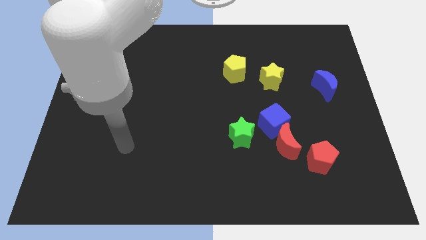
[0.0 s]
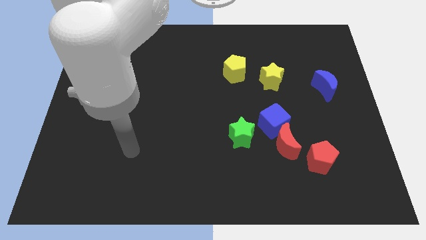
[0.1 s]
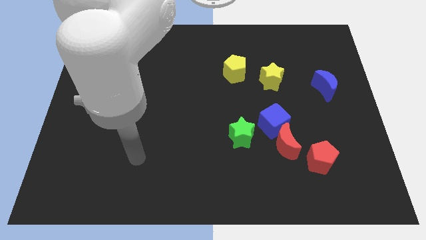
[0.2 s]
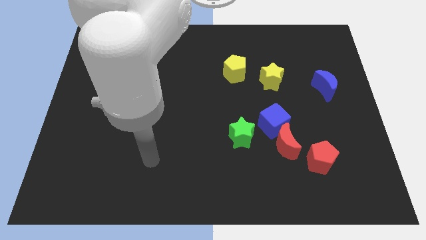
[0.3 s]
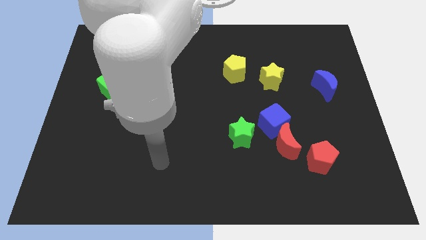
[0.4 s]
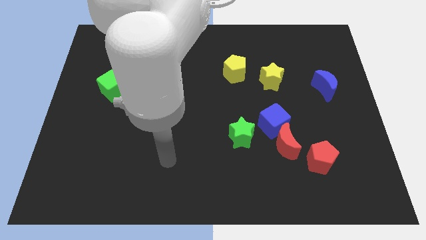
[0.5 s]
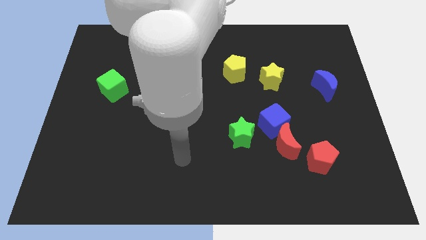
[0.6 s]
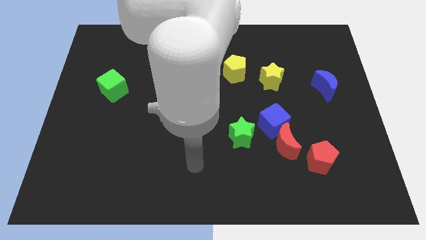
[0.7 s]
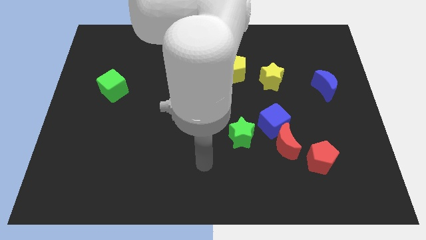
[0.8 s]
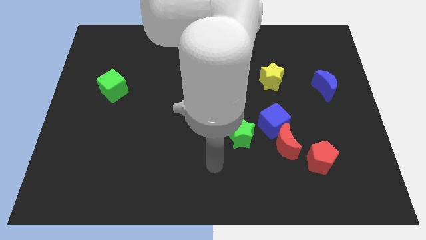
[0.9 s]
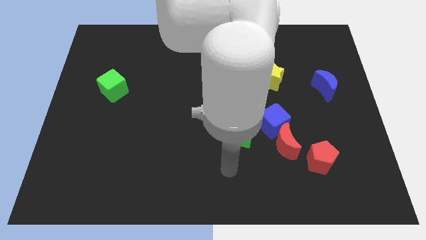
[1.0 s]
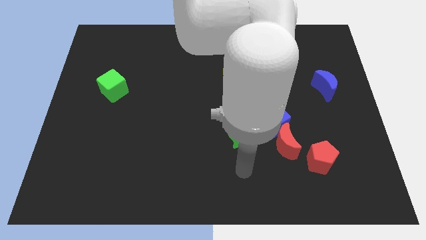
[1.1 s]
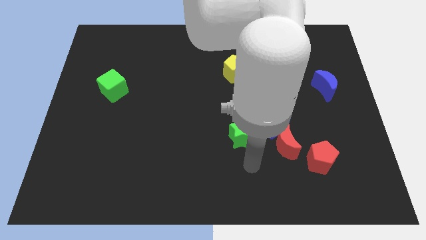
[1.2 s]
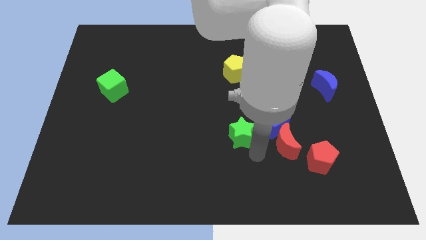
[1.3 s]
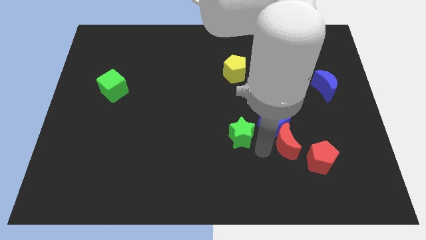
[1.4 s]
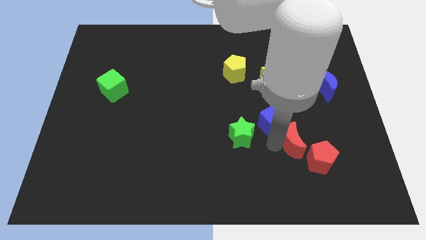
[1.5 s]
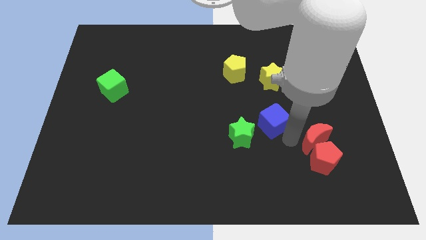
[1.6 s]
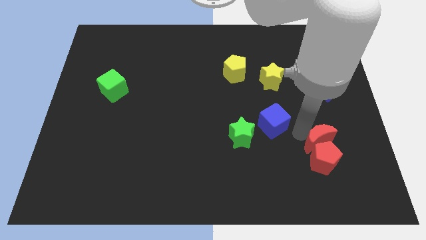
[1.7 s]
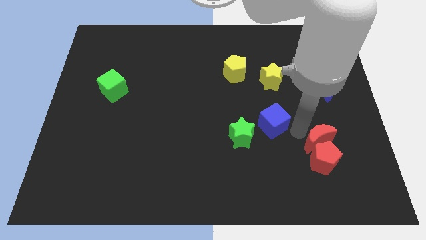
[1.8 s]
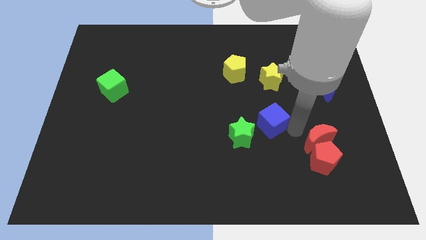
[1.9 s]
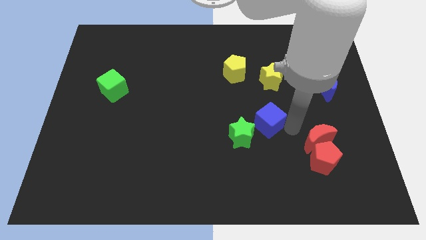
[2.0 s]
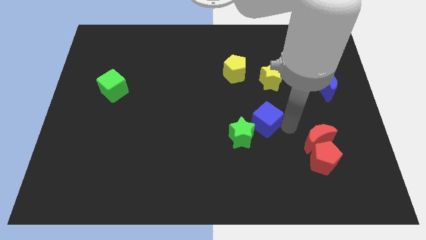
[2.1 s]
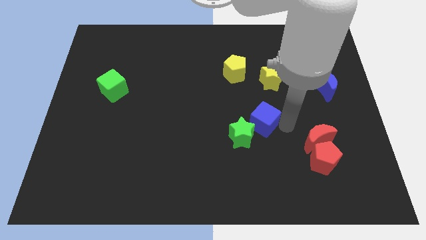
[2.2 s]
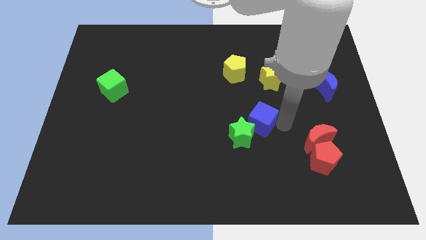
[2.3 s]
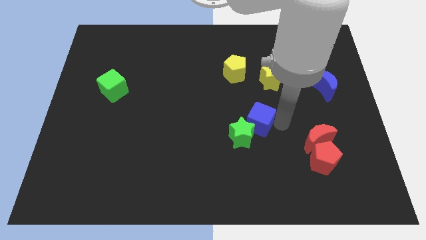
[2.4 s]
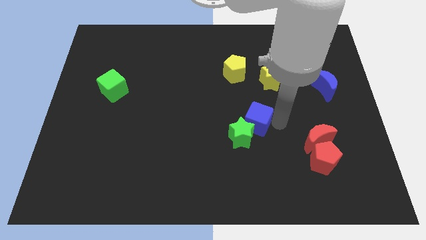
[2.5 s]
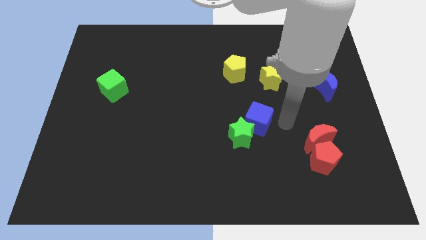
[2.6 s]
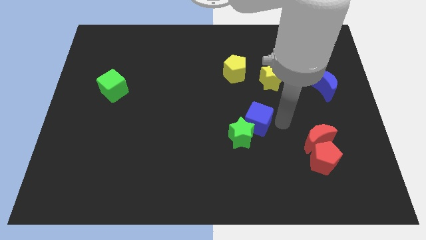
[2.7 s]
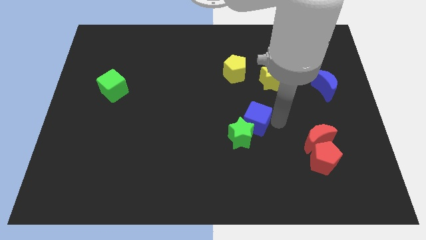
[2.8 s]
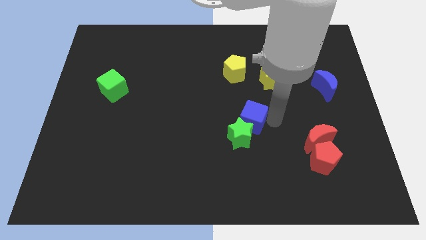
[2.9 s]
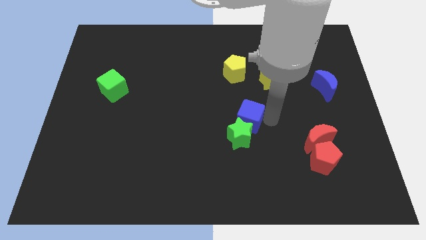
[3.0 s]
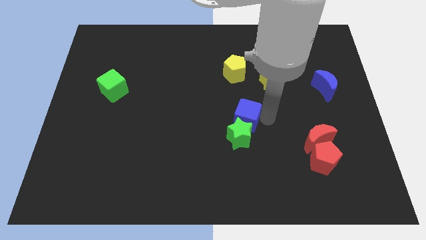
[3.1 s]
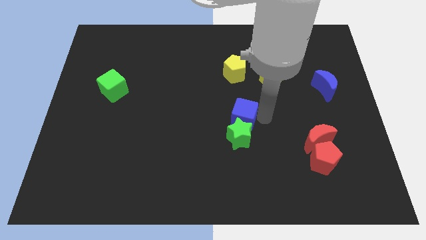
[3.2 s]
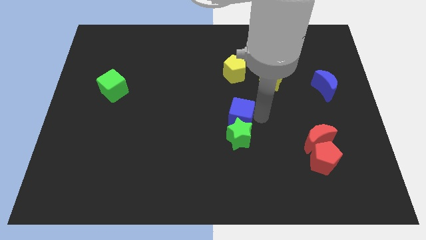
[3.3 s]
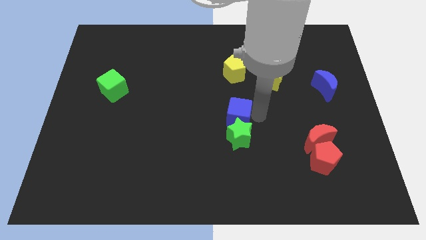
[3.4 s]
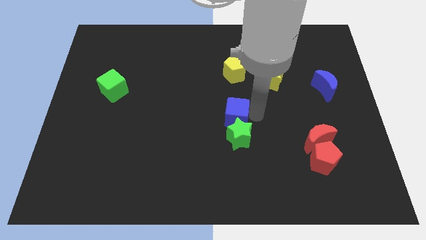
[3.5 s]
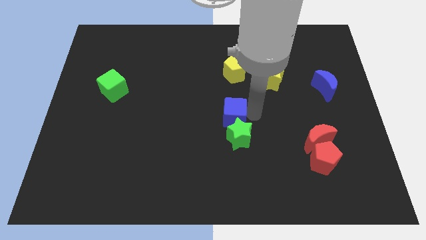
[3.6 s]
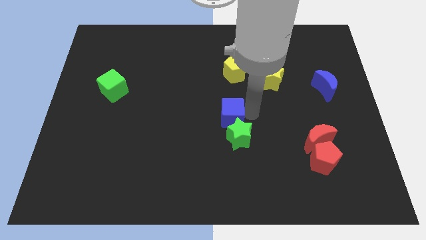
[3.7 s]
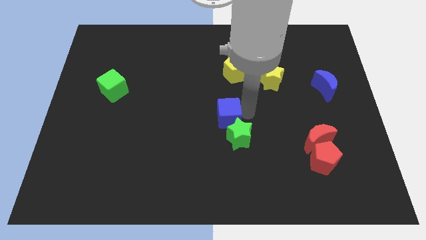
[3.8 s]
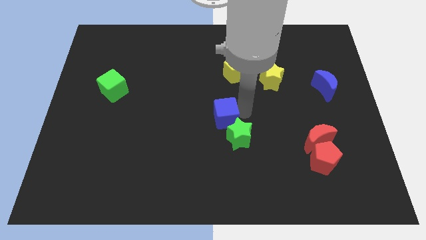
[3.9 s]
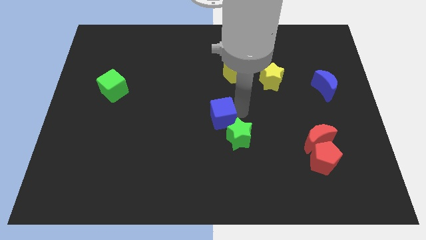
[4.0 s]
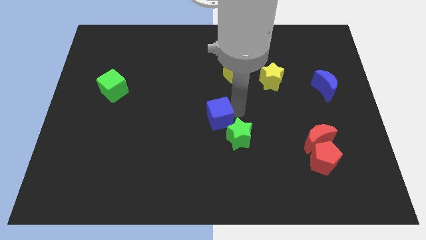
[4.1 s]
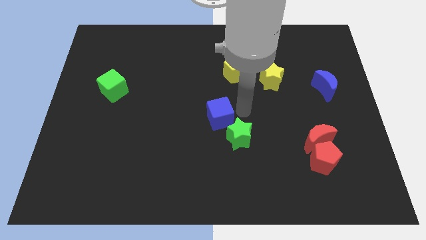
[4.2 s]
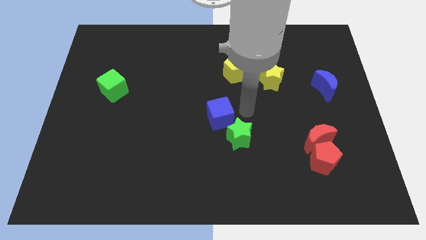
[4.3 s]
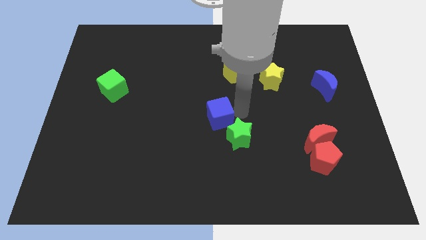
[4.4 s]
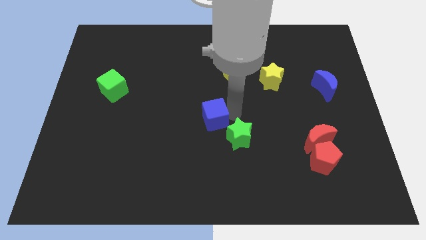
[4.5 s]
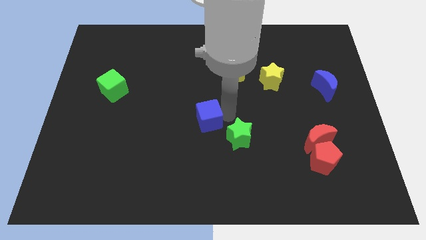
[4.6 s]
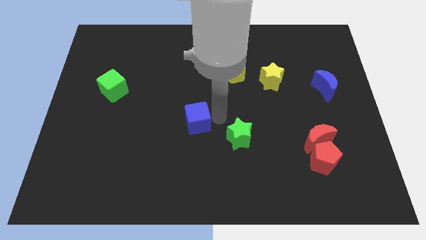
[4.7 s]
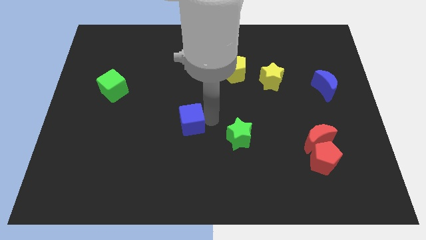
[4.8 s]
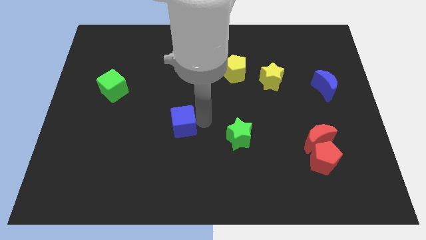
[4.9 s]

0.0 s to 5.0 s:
move the blue cube to the left

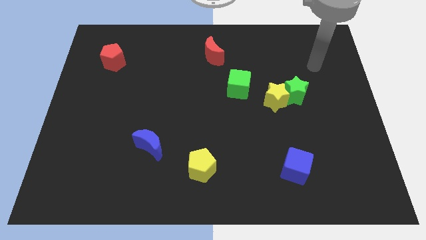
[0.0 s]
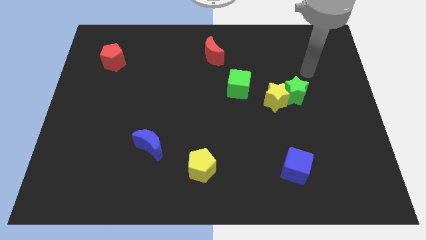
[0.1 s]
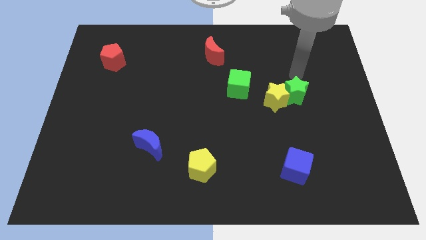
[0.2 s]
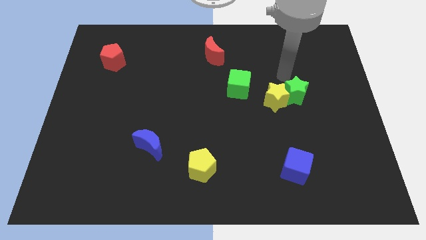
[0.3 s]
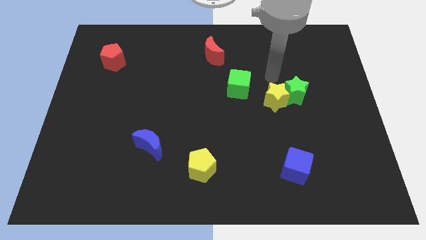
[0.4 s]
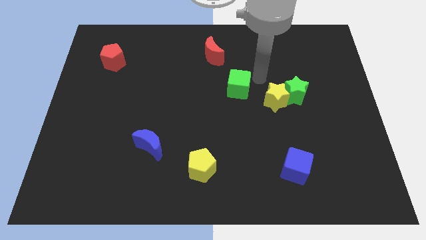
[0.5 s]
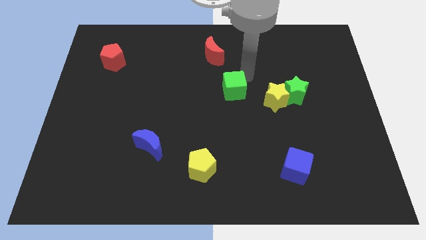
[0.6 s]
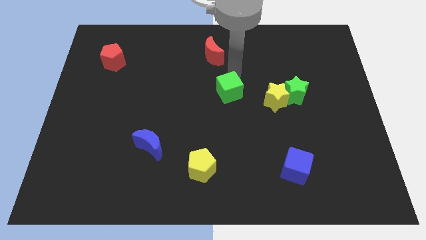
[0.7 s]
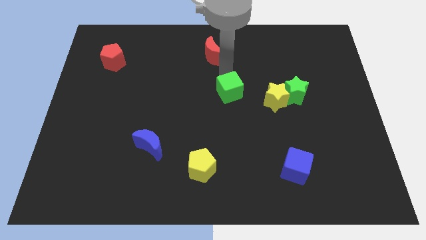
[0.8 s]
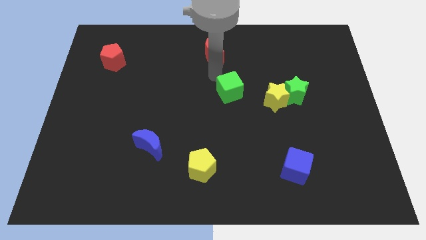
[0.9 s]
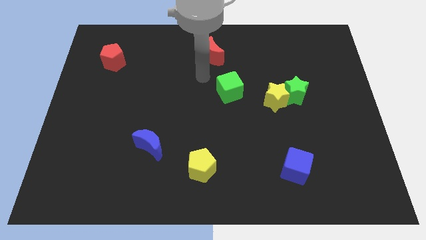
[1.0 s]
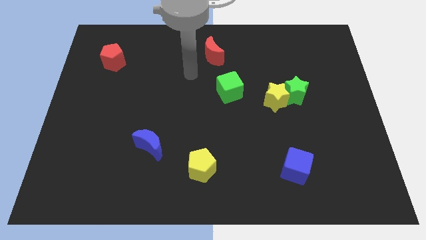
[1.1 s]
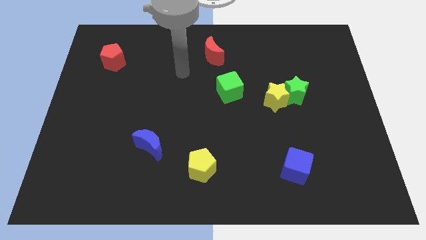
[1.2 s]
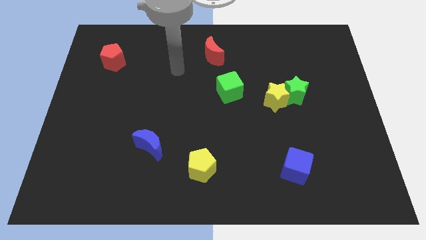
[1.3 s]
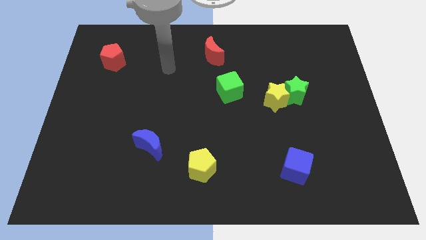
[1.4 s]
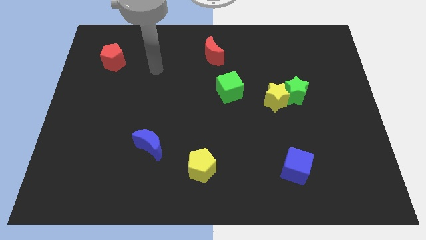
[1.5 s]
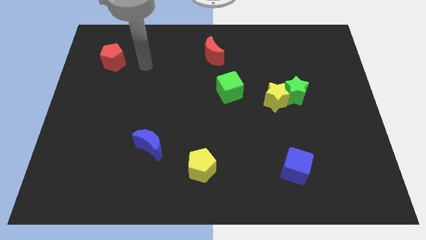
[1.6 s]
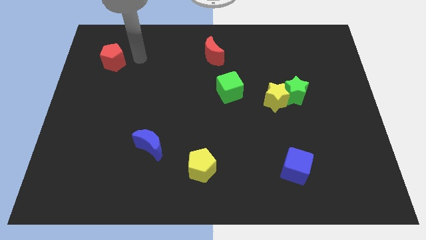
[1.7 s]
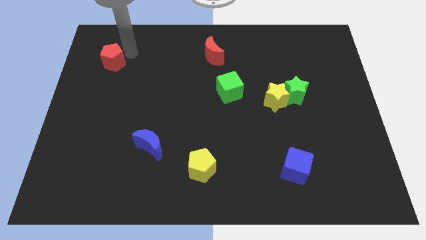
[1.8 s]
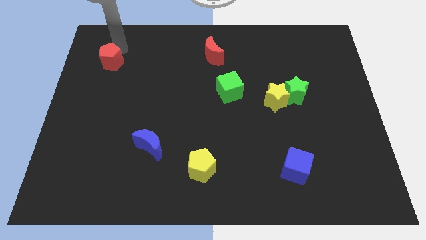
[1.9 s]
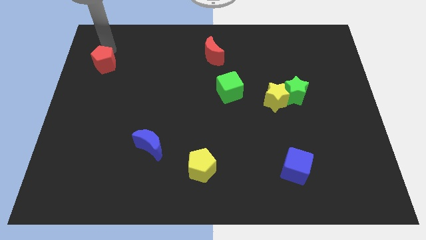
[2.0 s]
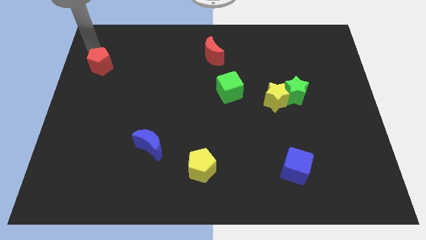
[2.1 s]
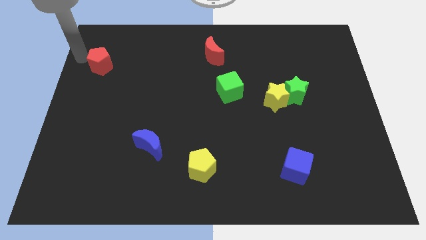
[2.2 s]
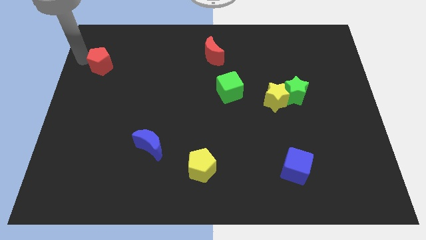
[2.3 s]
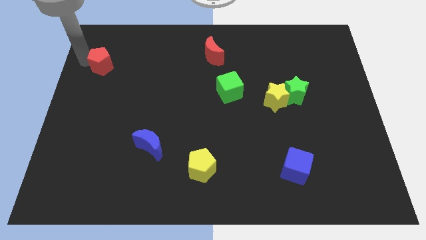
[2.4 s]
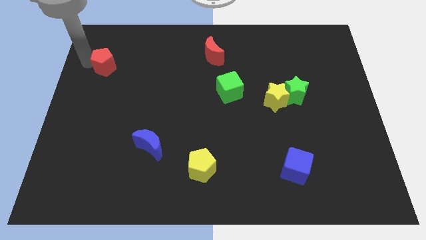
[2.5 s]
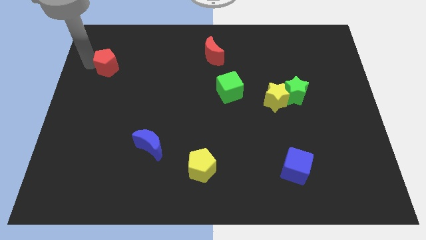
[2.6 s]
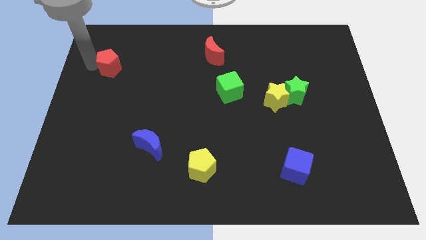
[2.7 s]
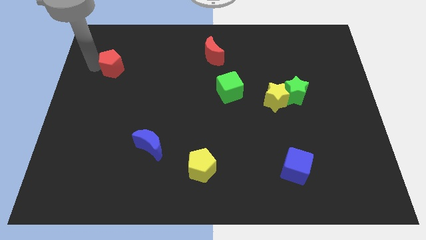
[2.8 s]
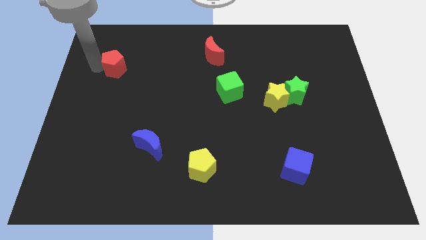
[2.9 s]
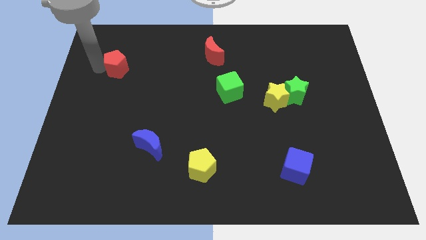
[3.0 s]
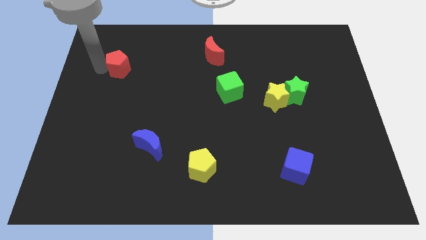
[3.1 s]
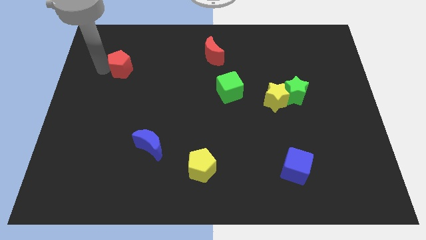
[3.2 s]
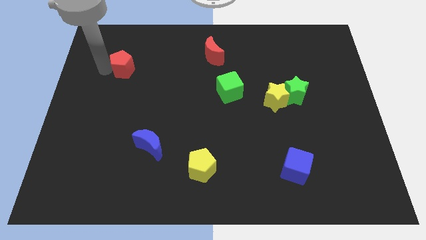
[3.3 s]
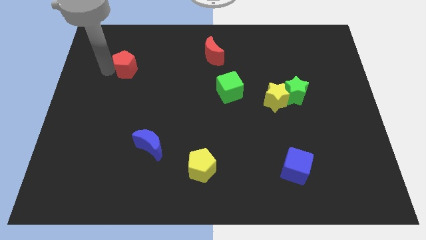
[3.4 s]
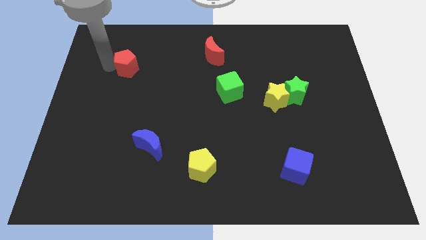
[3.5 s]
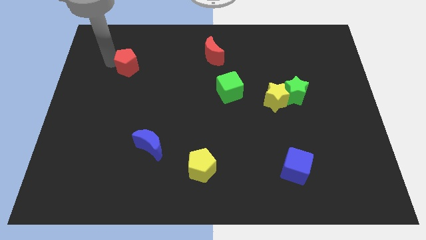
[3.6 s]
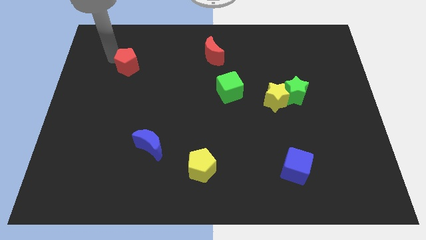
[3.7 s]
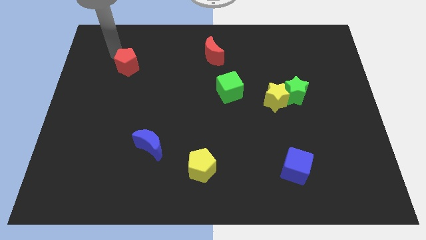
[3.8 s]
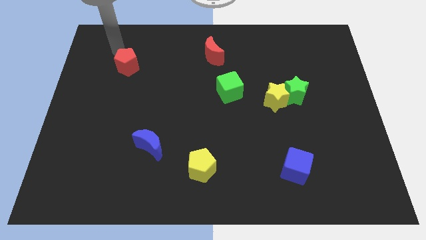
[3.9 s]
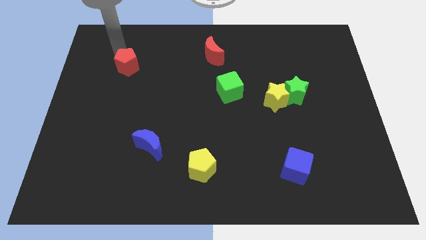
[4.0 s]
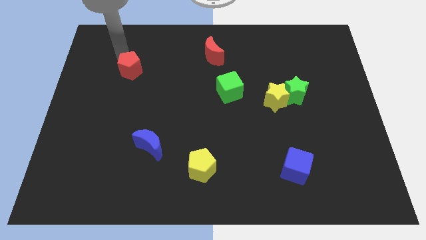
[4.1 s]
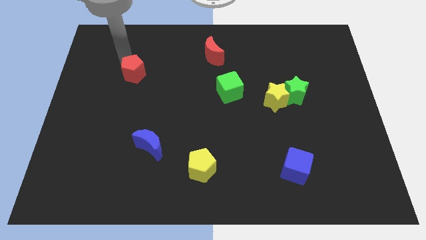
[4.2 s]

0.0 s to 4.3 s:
slide the red pentagon downwards and to the right a little
